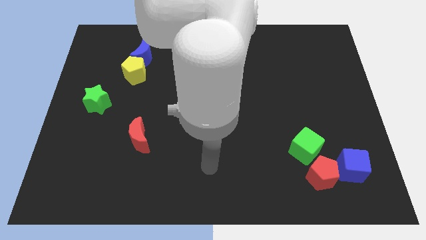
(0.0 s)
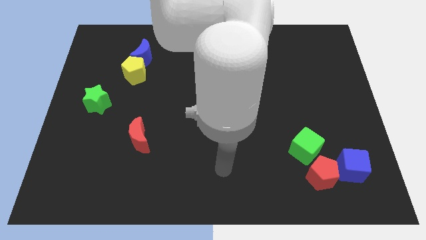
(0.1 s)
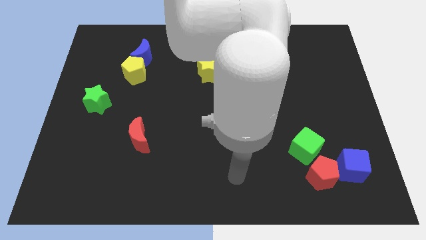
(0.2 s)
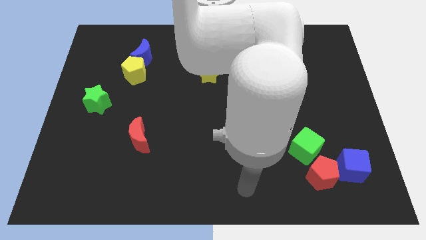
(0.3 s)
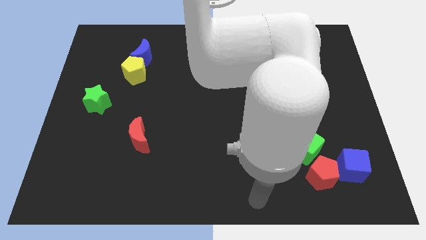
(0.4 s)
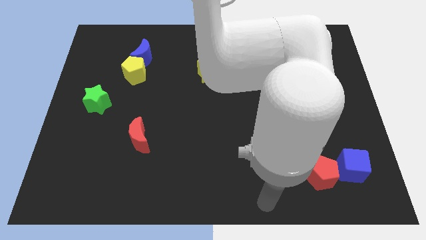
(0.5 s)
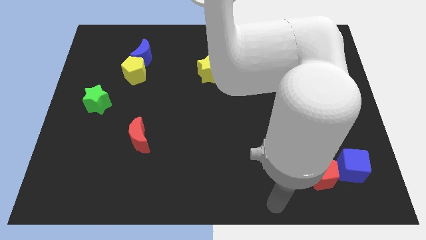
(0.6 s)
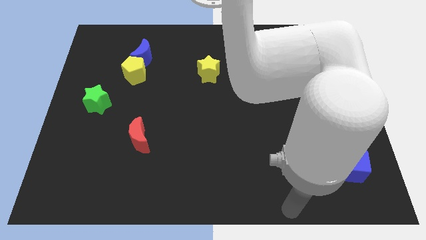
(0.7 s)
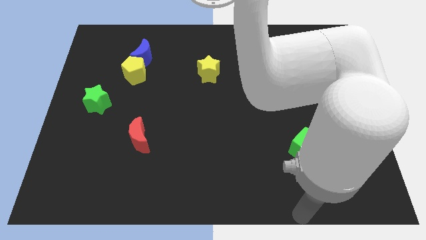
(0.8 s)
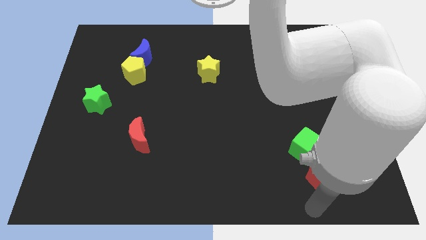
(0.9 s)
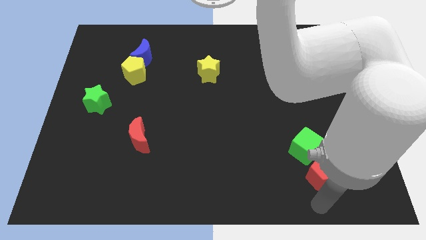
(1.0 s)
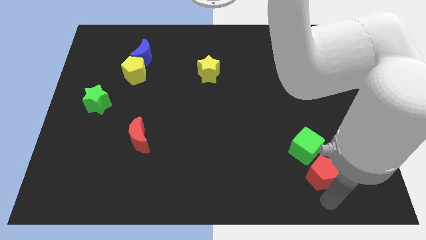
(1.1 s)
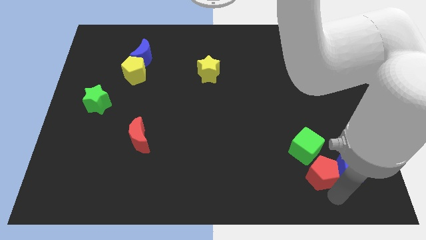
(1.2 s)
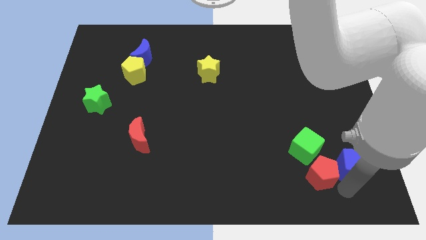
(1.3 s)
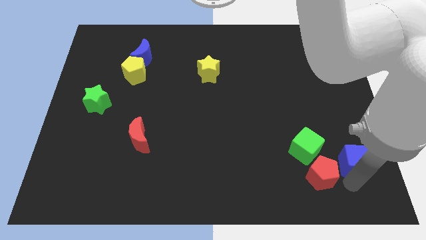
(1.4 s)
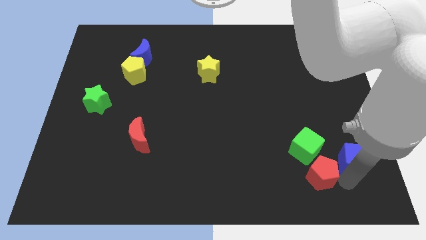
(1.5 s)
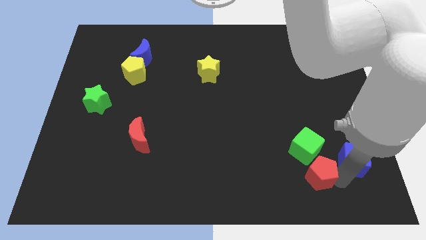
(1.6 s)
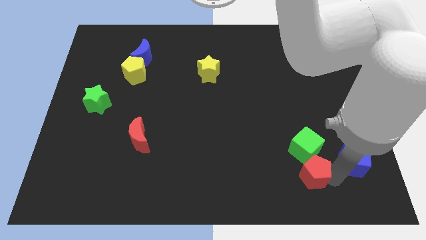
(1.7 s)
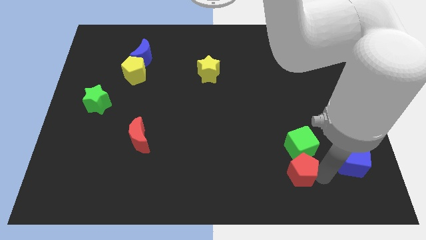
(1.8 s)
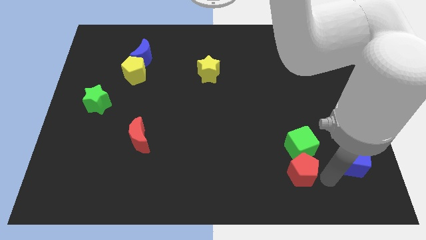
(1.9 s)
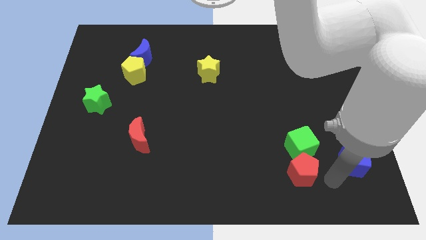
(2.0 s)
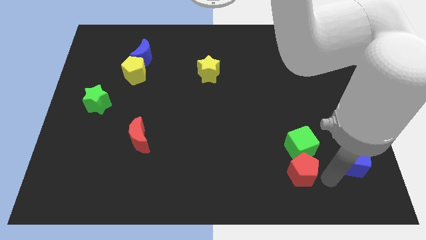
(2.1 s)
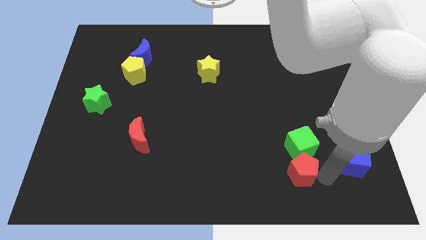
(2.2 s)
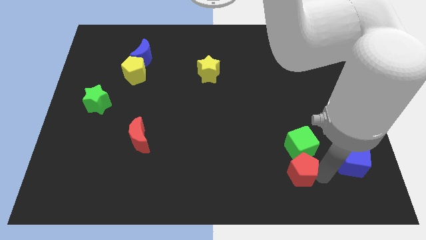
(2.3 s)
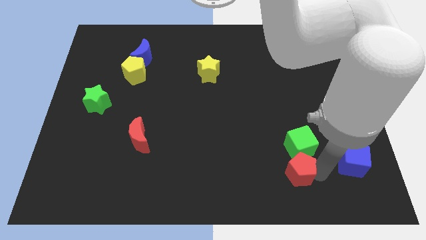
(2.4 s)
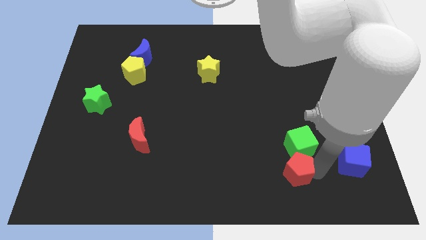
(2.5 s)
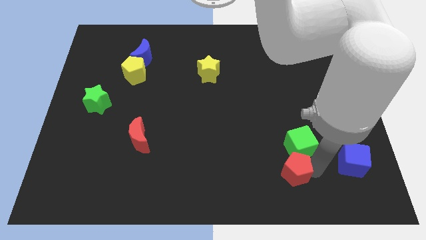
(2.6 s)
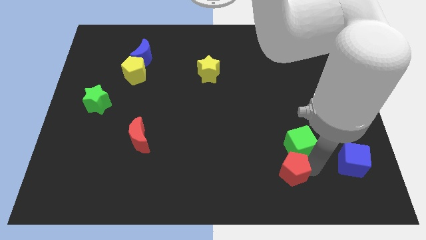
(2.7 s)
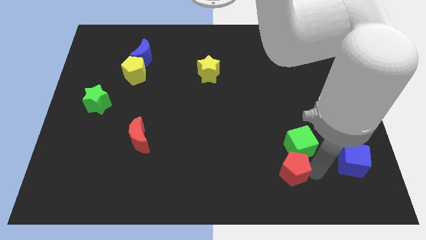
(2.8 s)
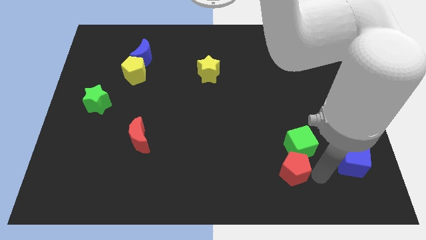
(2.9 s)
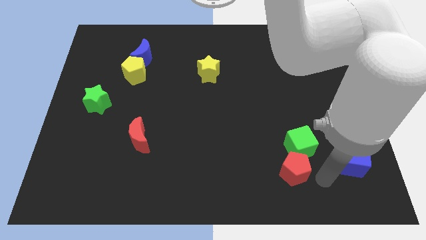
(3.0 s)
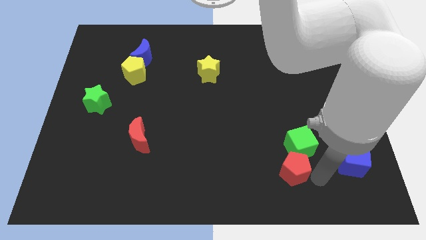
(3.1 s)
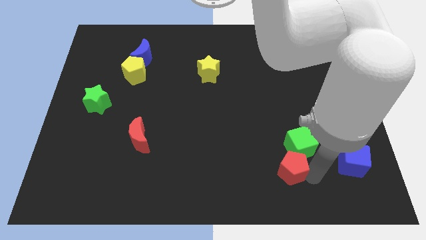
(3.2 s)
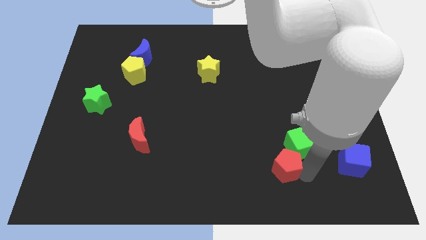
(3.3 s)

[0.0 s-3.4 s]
push the red pentagon a little bit to the left

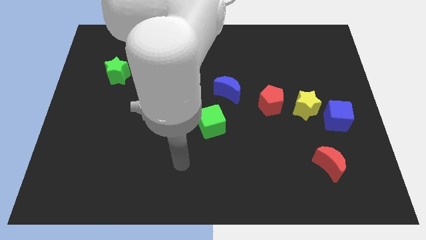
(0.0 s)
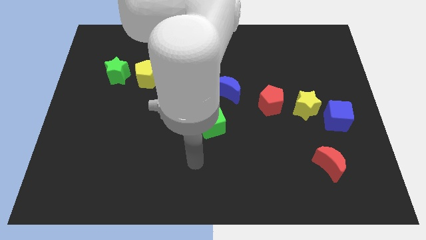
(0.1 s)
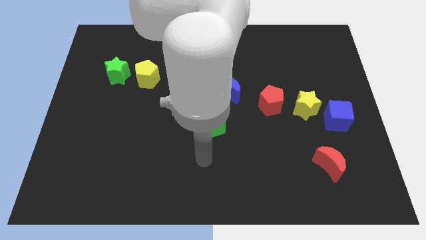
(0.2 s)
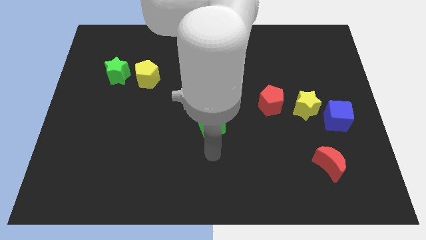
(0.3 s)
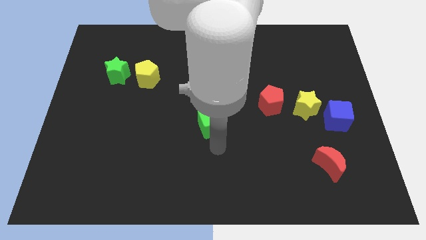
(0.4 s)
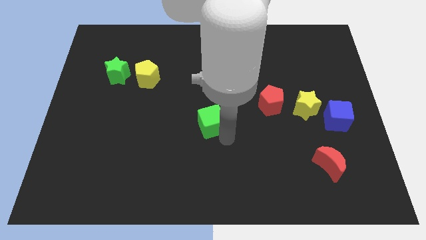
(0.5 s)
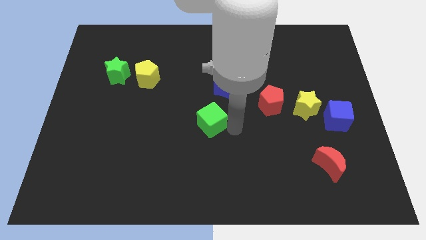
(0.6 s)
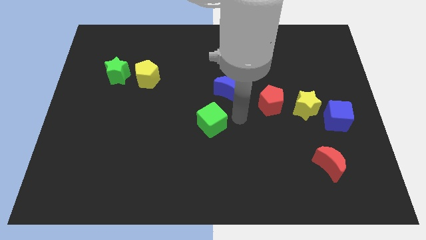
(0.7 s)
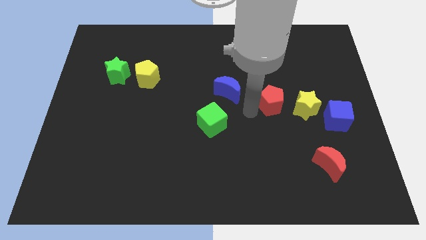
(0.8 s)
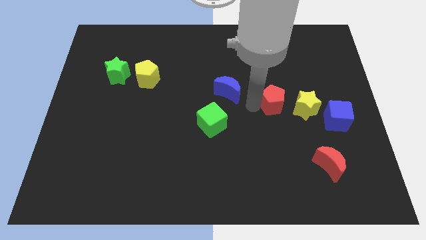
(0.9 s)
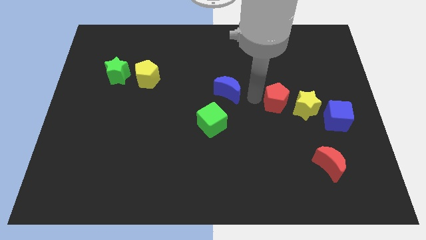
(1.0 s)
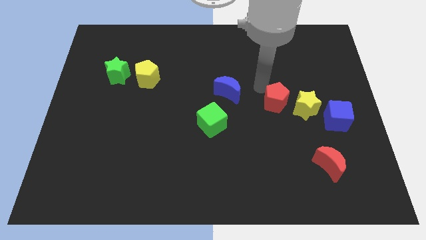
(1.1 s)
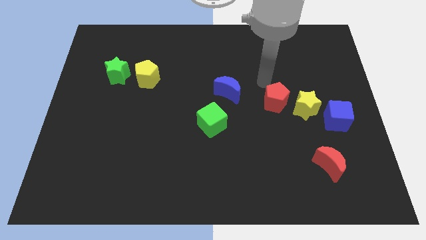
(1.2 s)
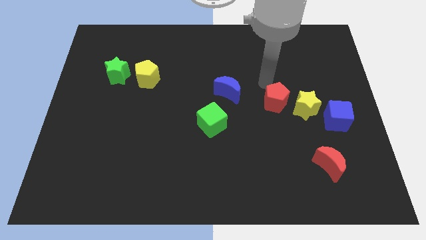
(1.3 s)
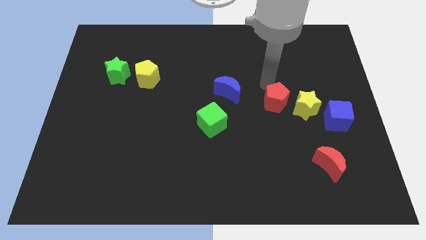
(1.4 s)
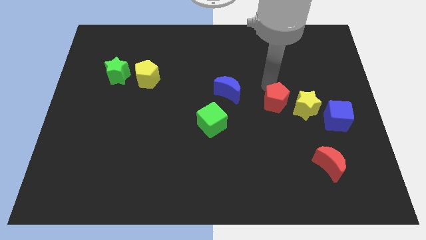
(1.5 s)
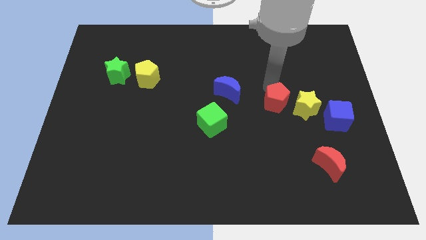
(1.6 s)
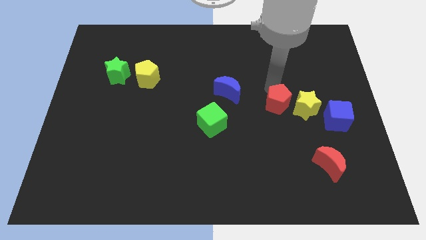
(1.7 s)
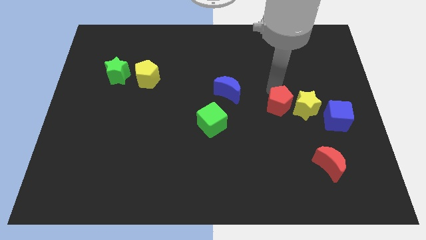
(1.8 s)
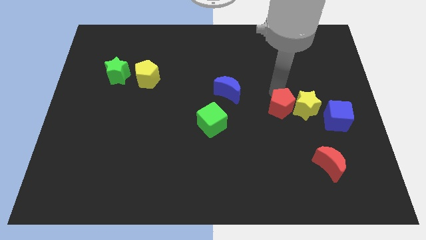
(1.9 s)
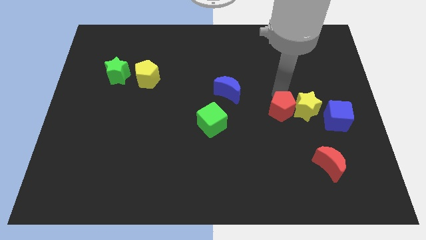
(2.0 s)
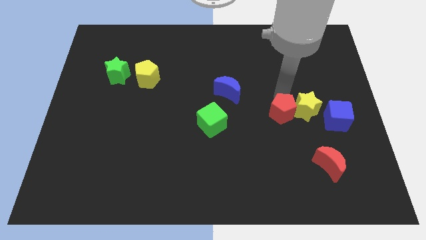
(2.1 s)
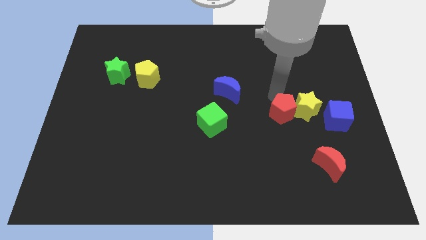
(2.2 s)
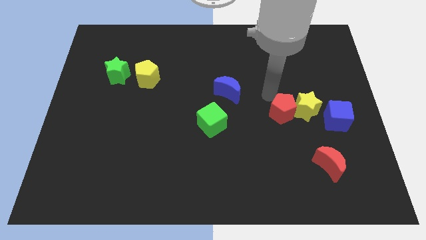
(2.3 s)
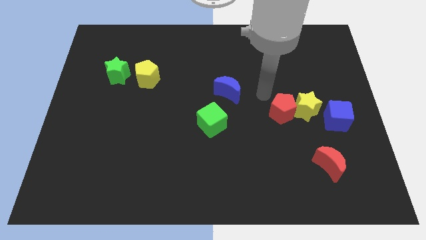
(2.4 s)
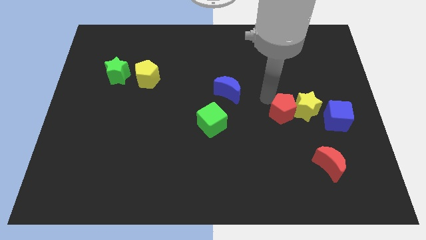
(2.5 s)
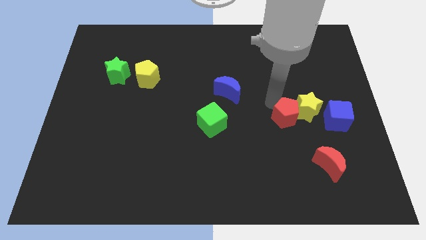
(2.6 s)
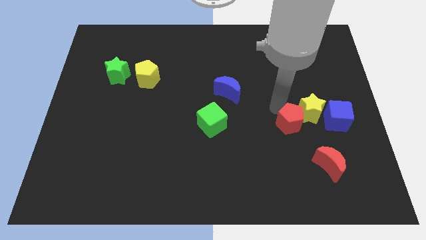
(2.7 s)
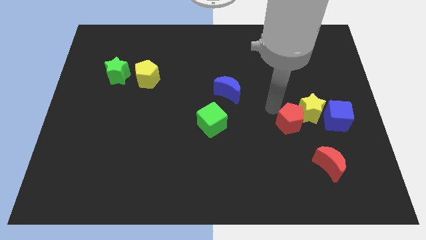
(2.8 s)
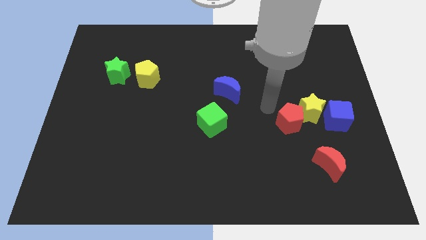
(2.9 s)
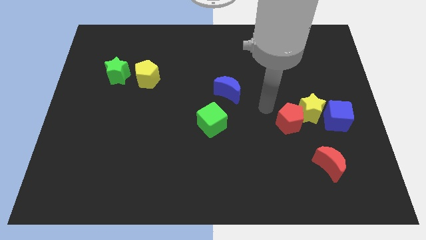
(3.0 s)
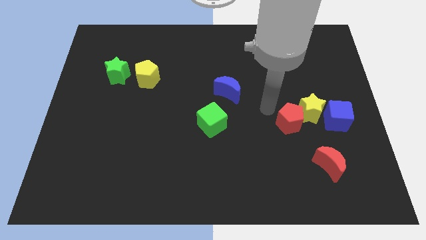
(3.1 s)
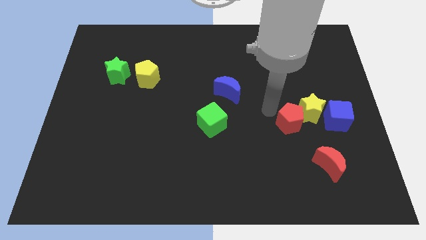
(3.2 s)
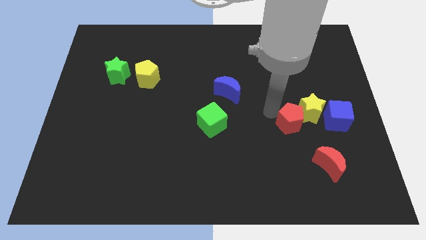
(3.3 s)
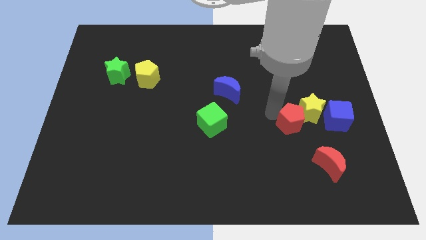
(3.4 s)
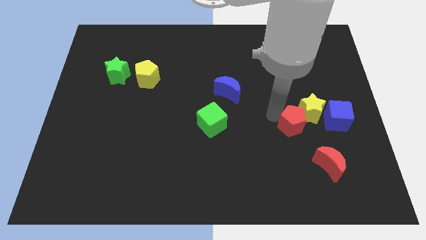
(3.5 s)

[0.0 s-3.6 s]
push the red pentagon a bit down and to the right diagonally

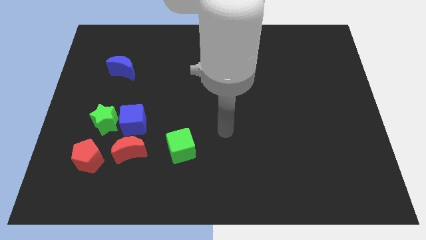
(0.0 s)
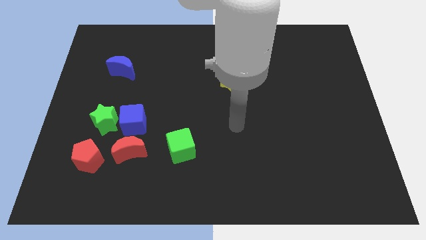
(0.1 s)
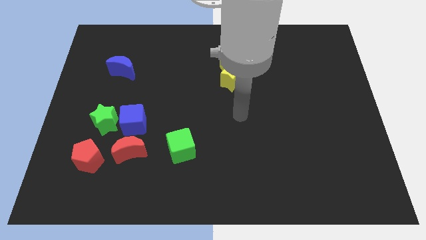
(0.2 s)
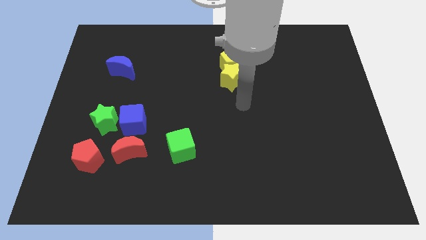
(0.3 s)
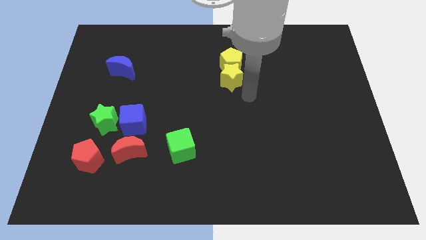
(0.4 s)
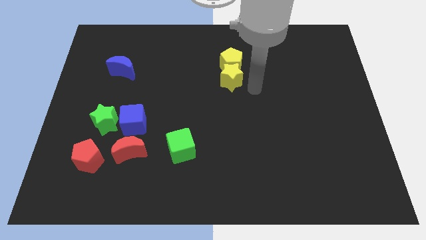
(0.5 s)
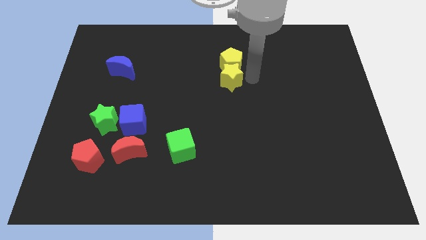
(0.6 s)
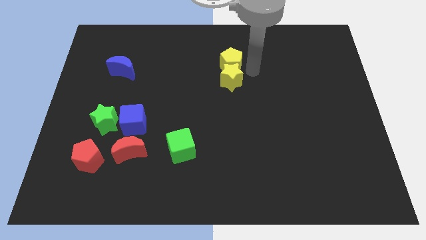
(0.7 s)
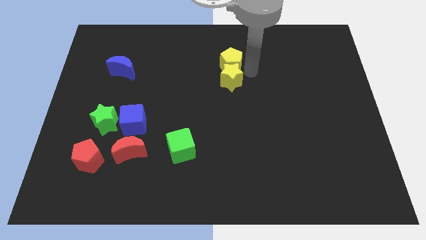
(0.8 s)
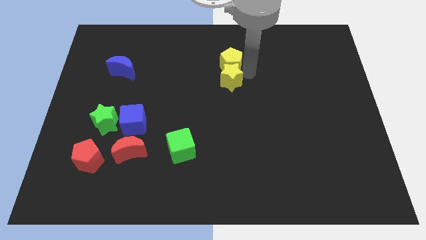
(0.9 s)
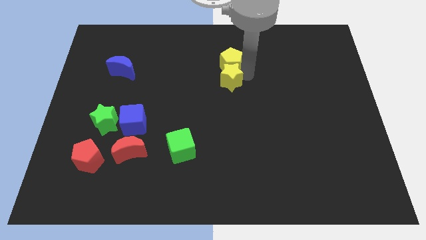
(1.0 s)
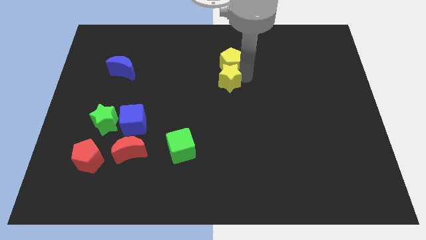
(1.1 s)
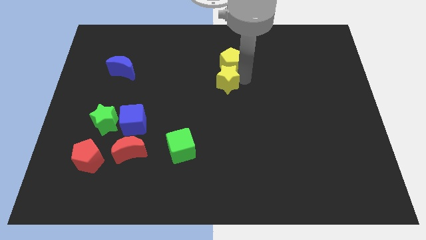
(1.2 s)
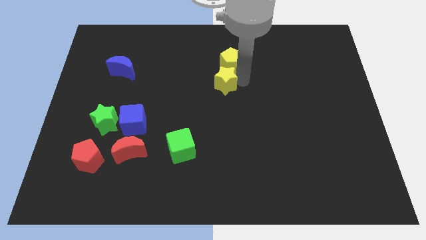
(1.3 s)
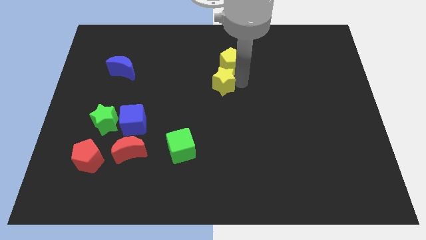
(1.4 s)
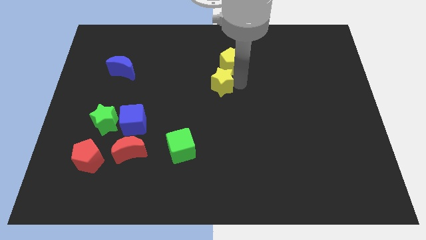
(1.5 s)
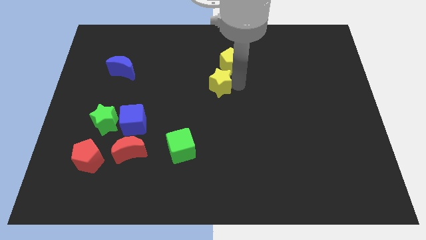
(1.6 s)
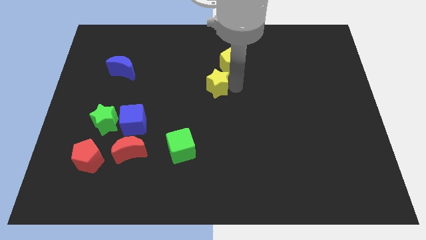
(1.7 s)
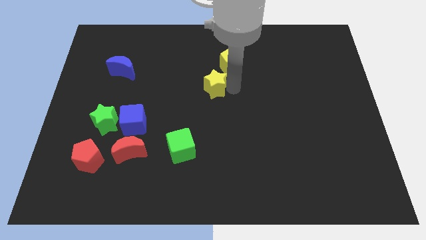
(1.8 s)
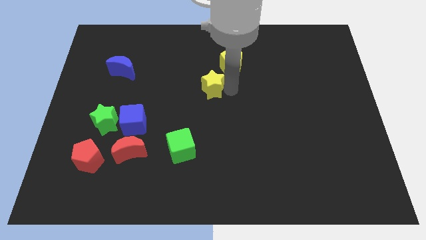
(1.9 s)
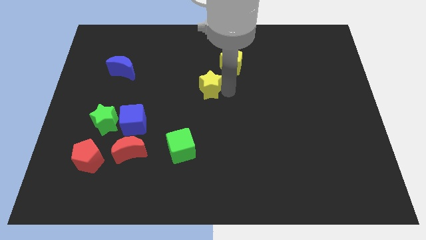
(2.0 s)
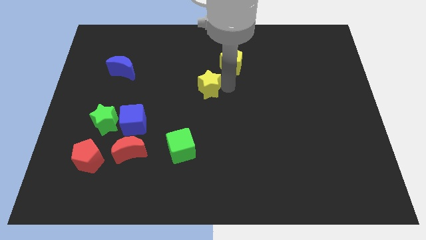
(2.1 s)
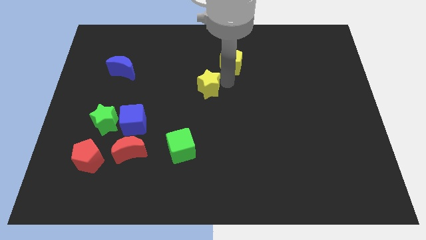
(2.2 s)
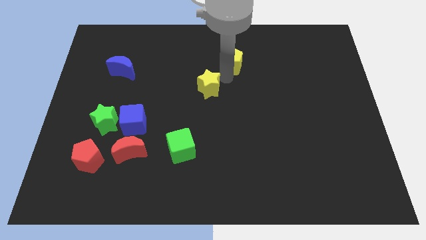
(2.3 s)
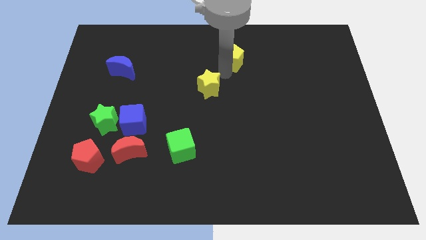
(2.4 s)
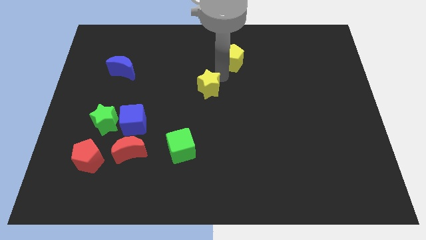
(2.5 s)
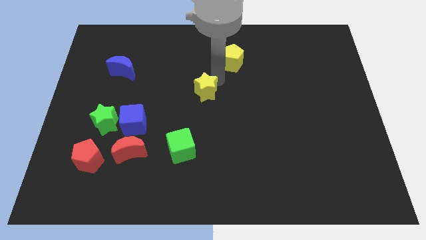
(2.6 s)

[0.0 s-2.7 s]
push the yellow star a little diagonally downwards and to the left
